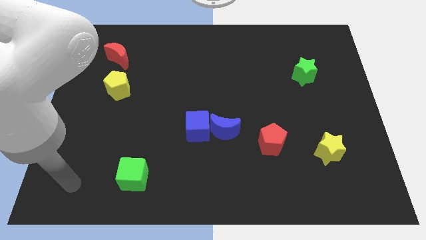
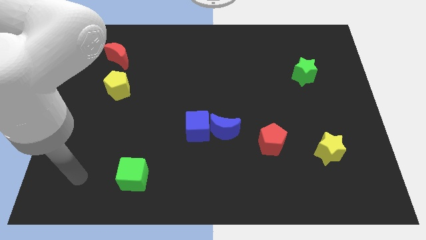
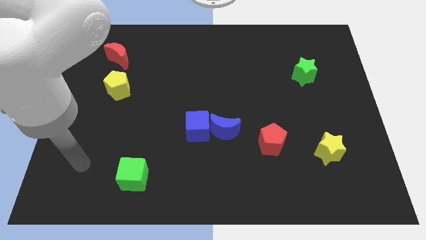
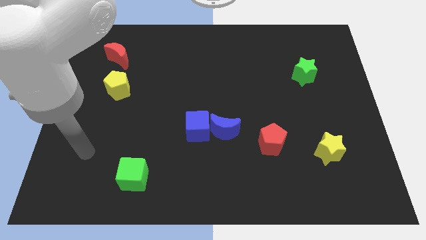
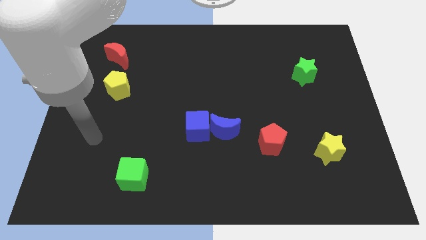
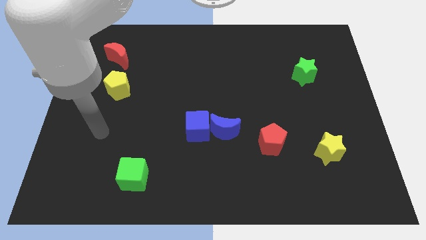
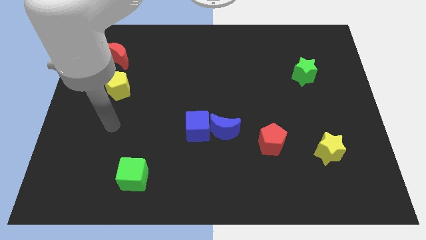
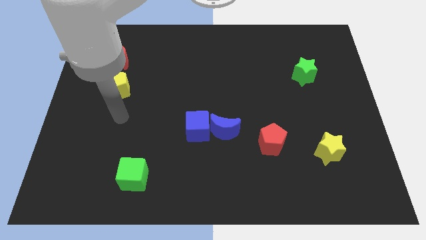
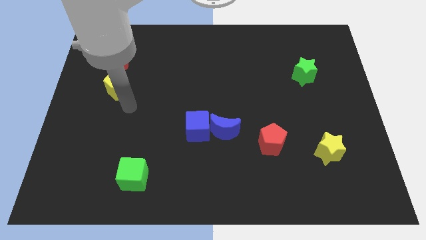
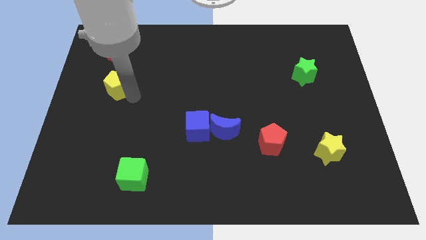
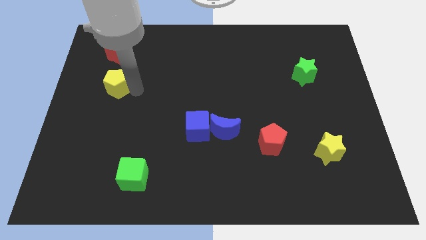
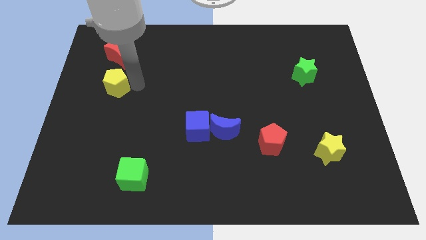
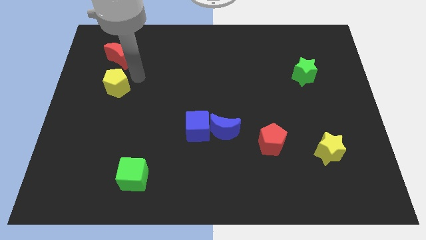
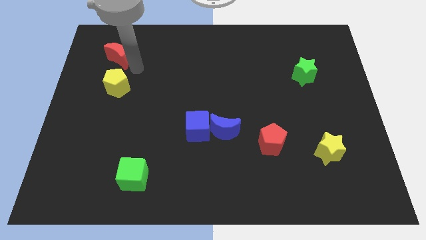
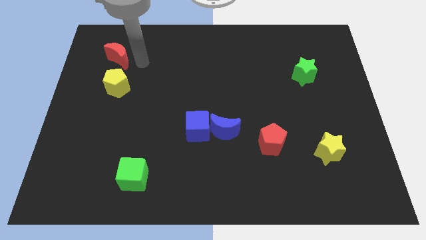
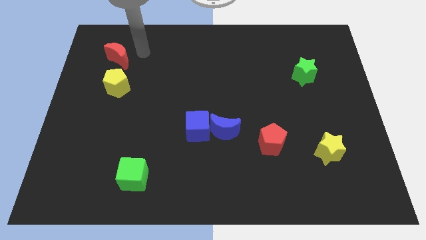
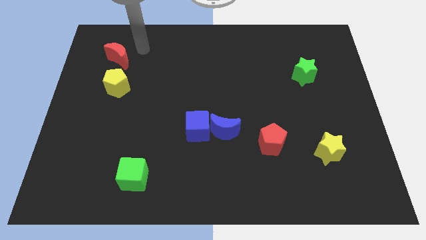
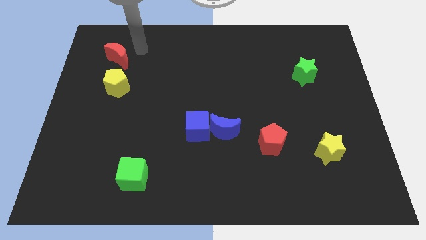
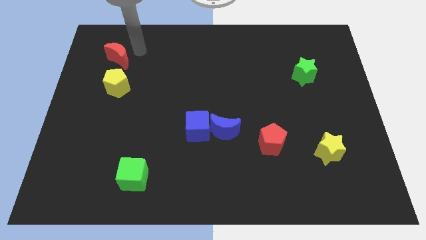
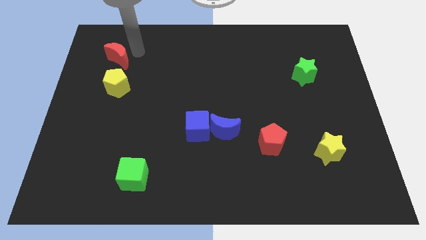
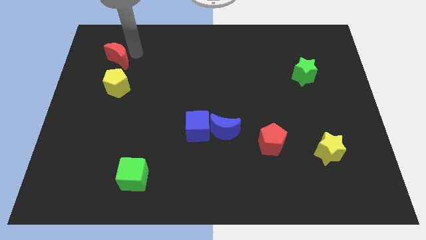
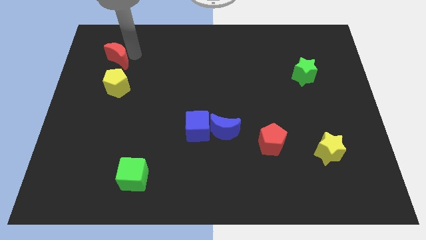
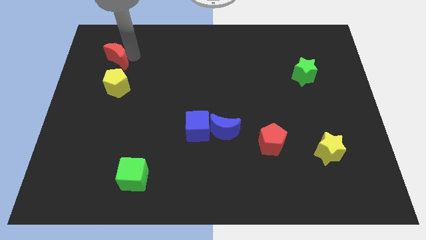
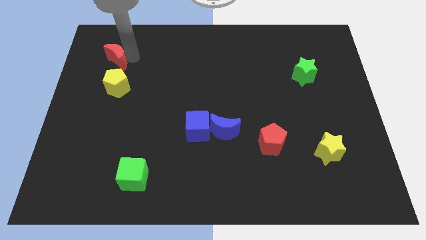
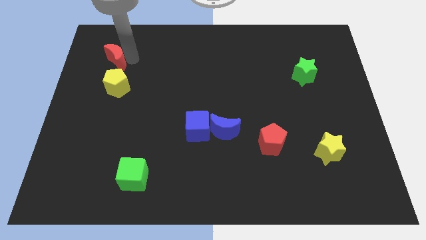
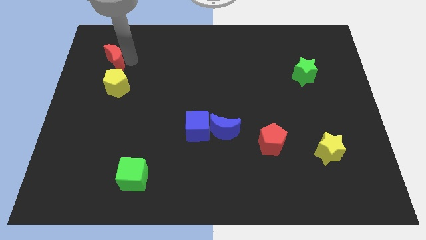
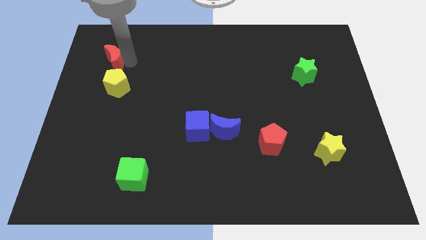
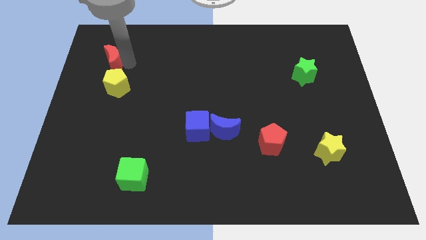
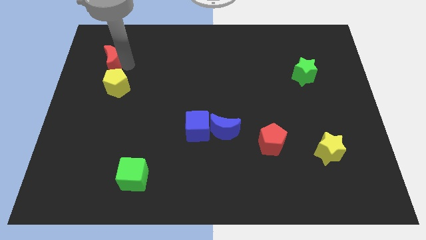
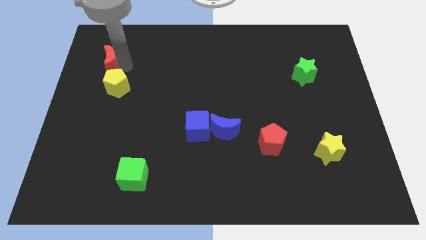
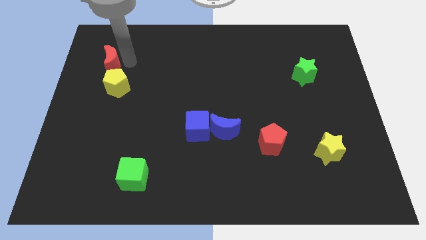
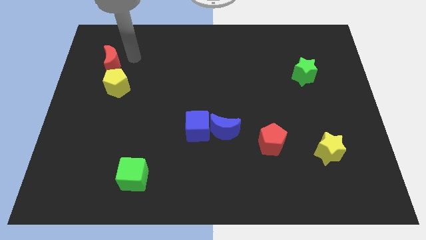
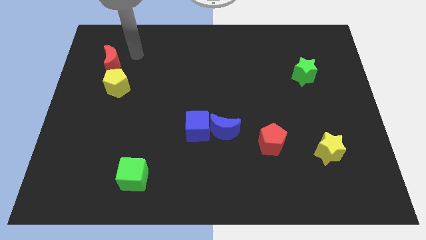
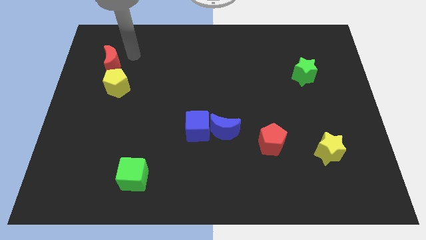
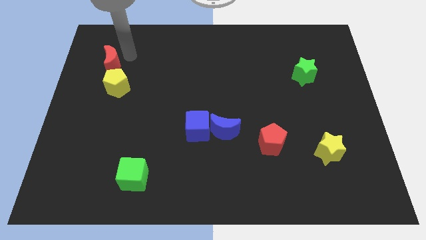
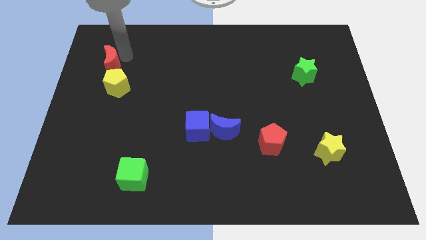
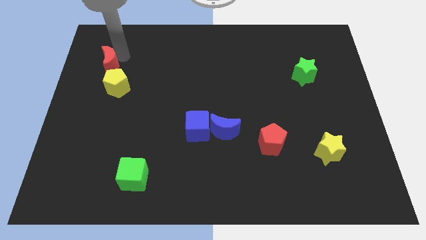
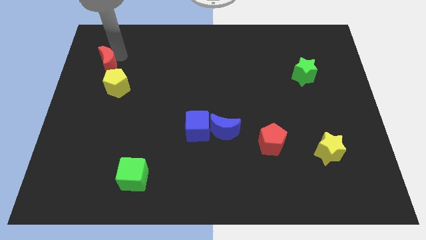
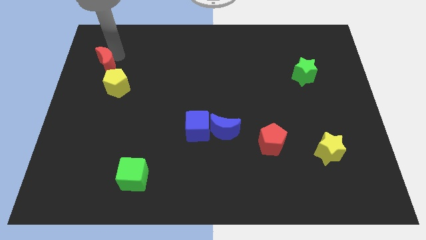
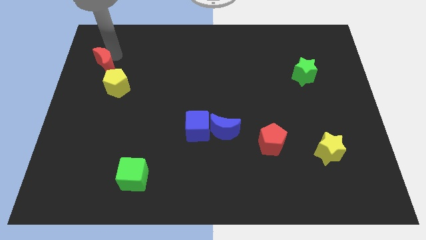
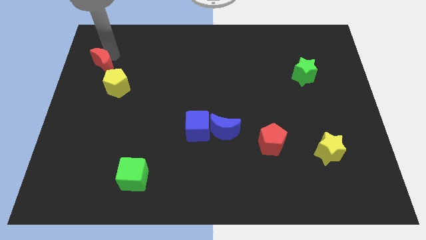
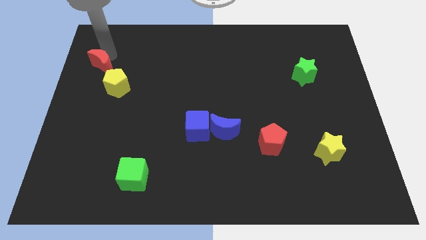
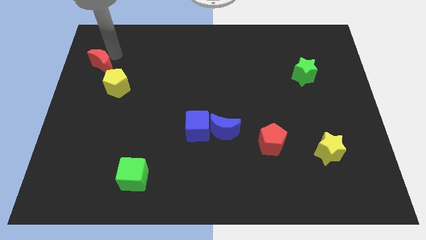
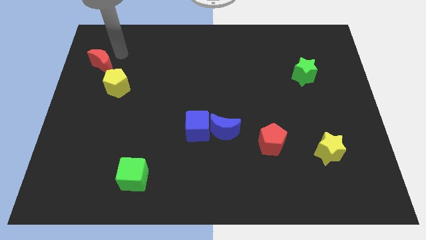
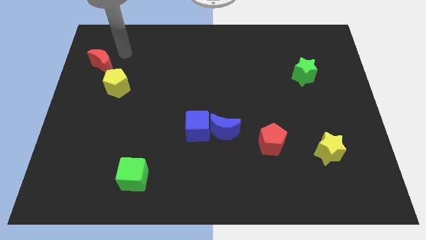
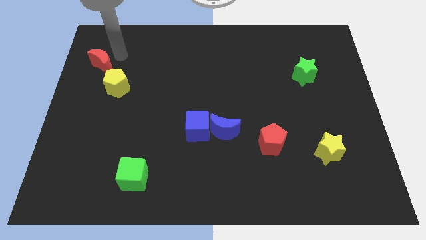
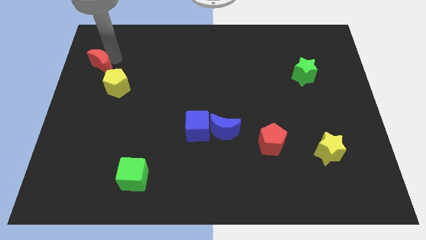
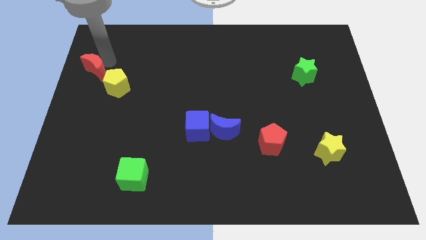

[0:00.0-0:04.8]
push the red moon to the left side of the board

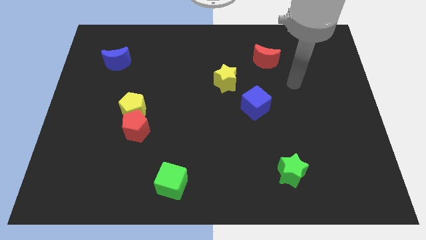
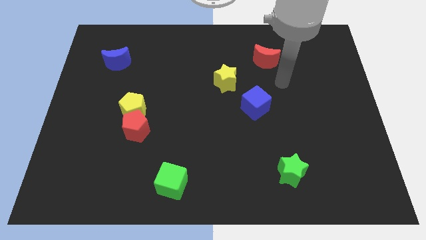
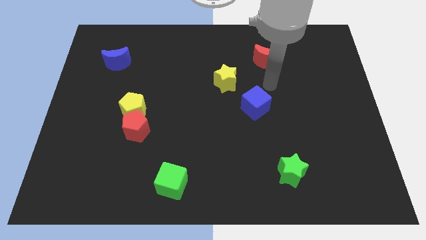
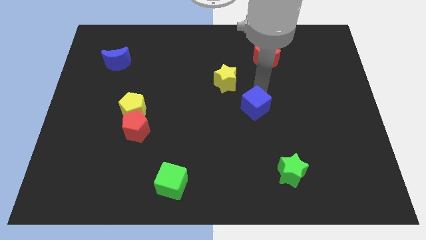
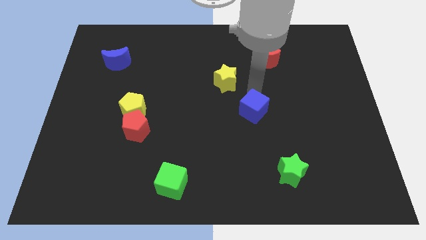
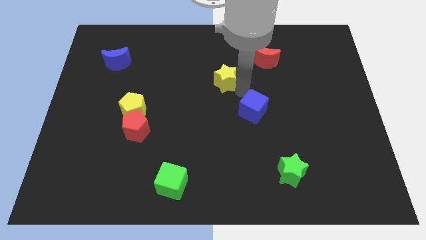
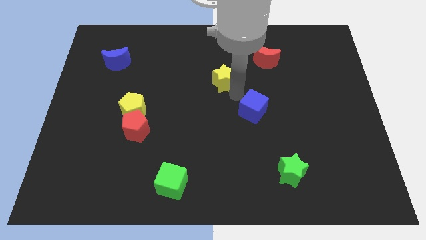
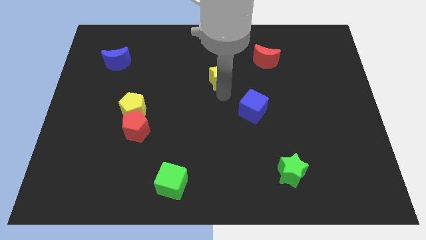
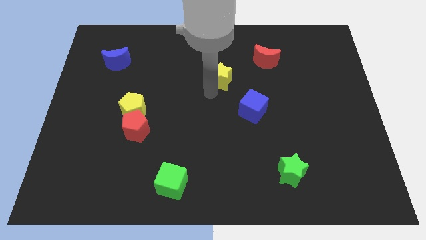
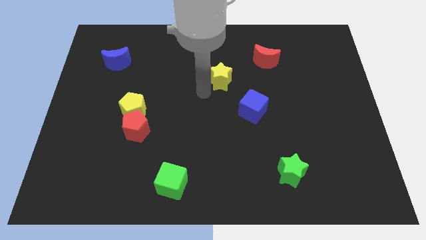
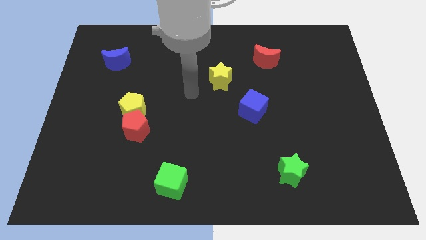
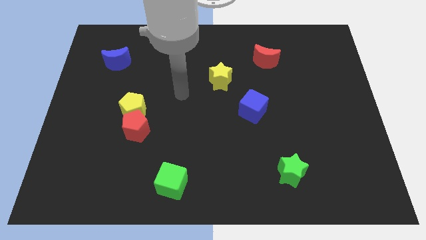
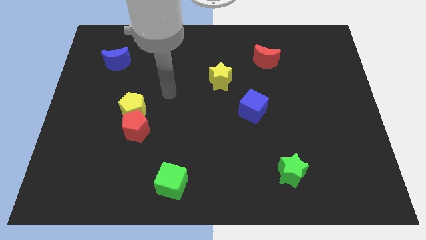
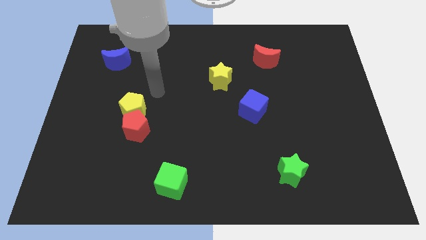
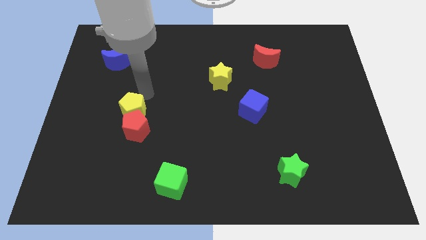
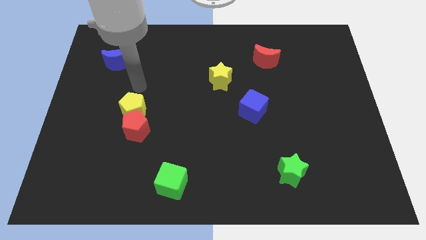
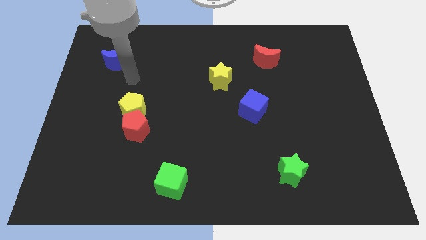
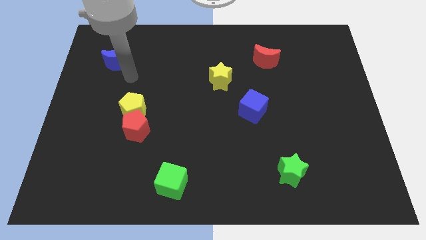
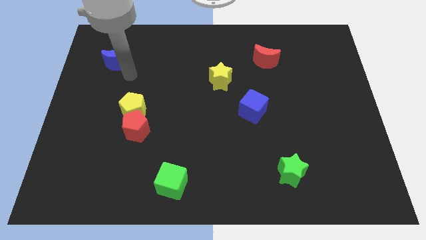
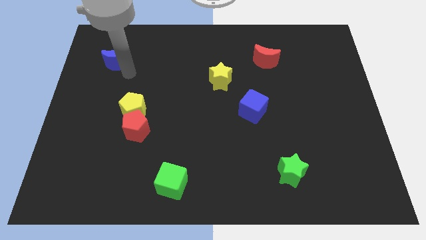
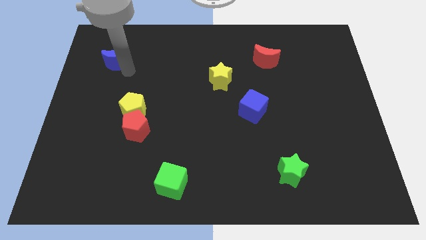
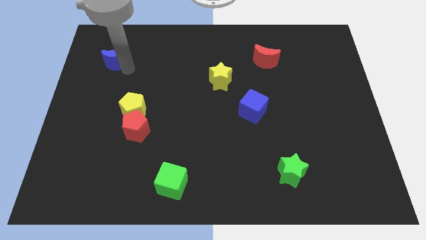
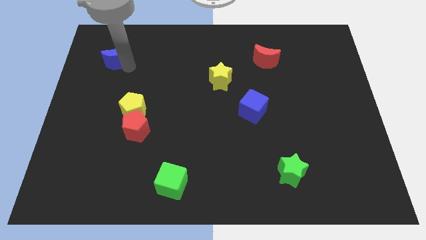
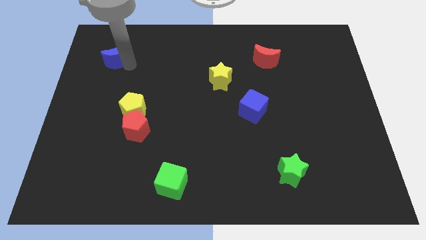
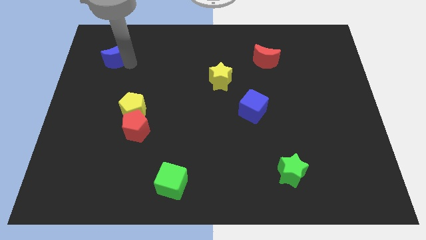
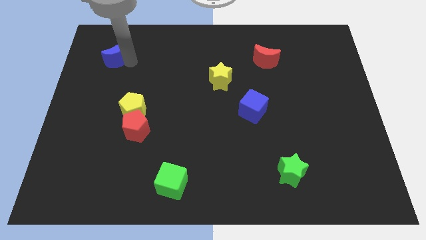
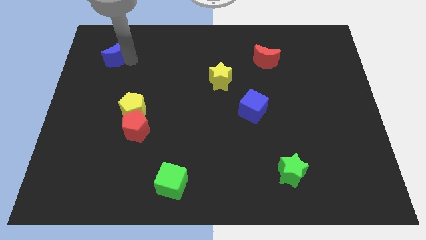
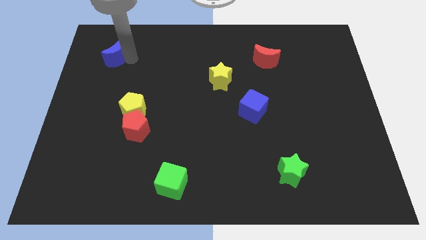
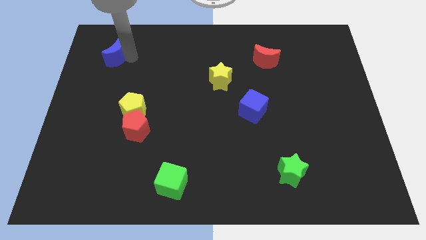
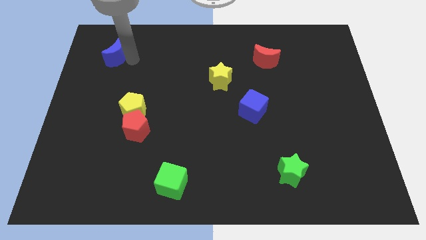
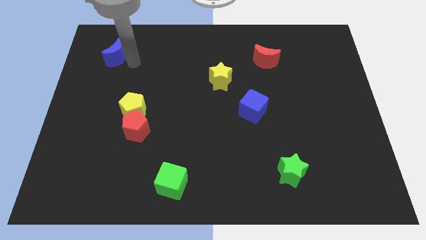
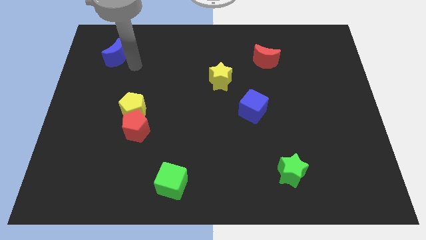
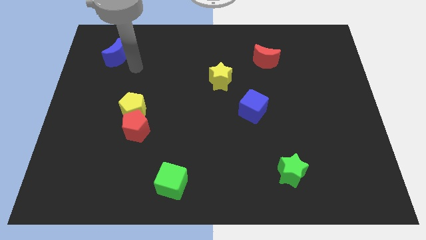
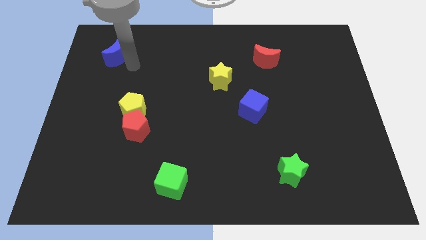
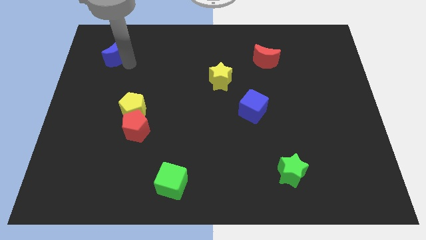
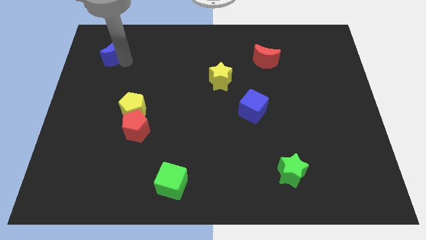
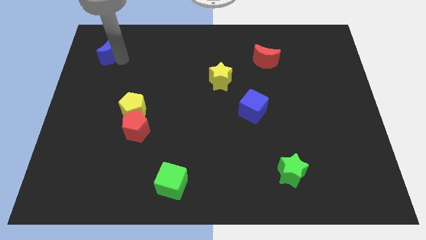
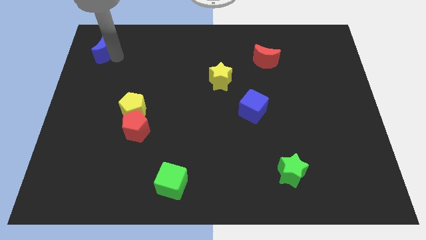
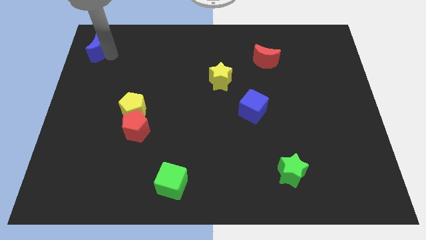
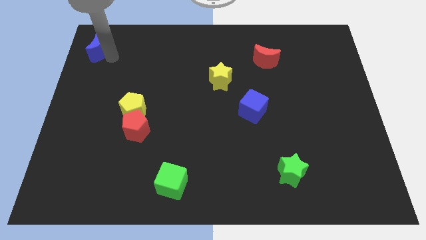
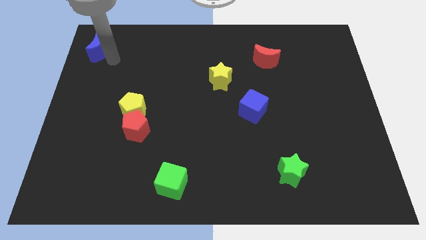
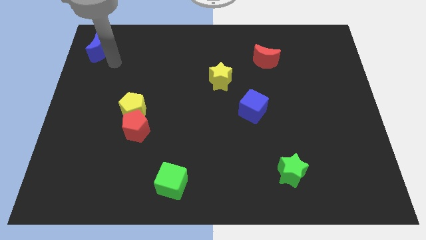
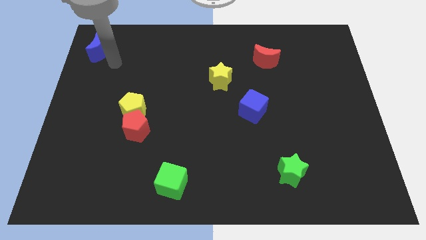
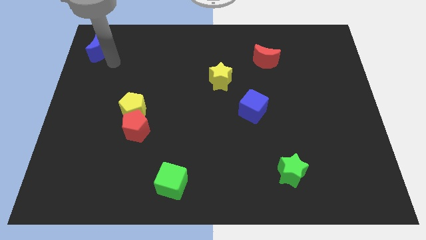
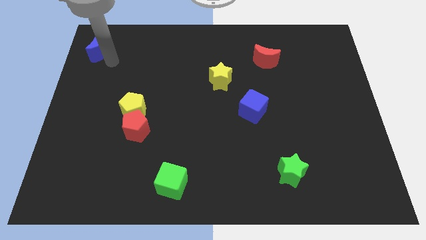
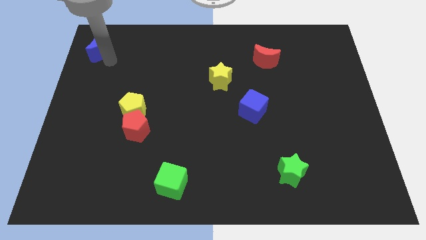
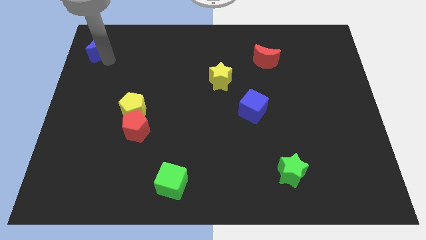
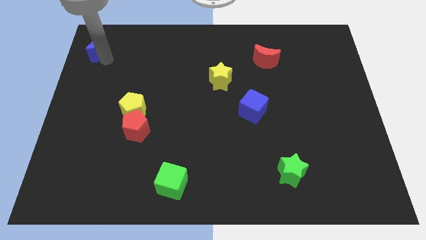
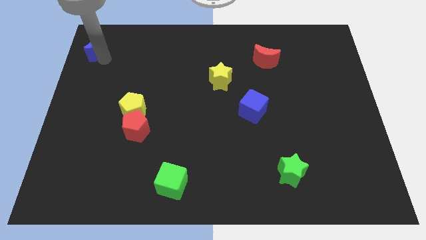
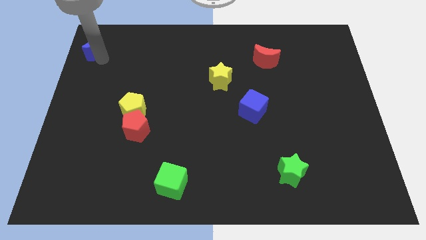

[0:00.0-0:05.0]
push the blue moon to the upper left corner
